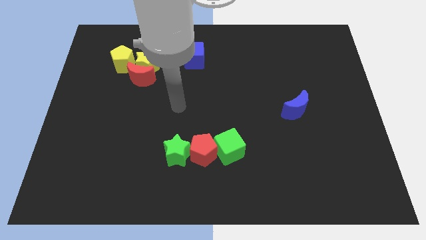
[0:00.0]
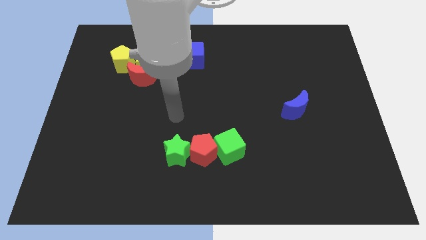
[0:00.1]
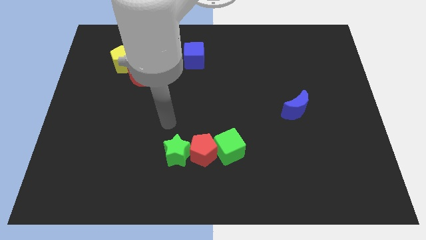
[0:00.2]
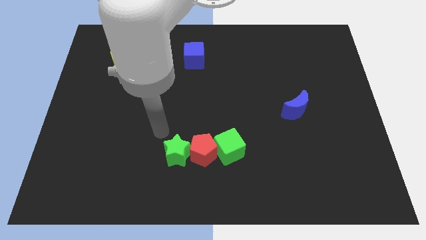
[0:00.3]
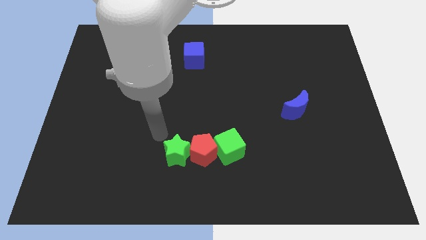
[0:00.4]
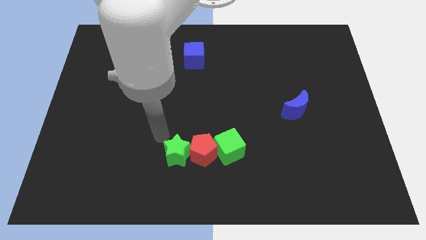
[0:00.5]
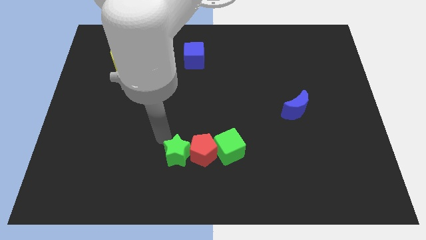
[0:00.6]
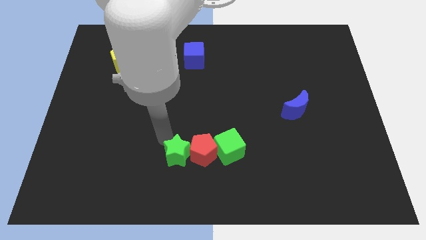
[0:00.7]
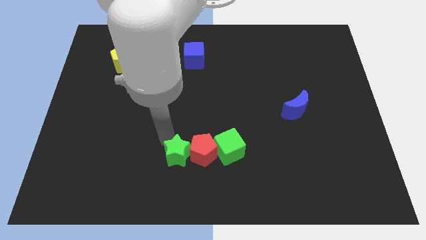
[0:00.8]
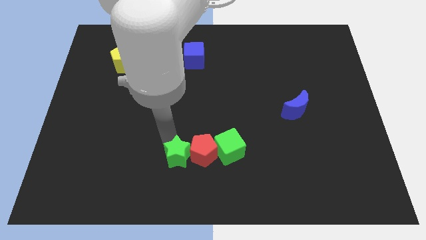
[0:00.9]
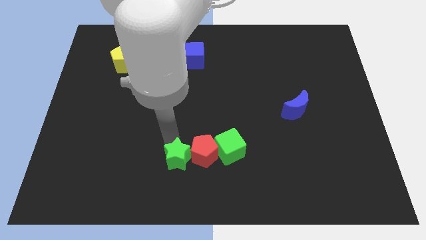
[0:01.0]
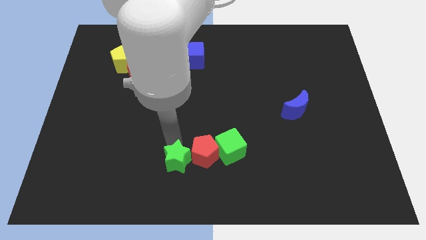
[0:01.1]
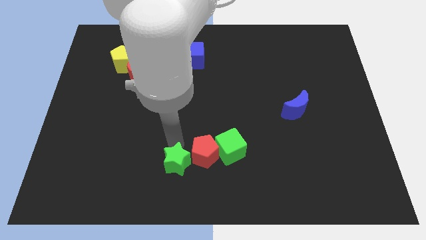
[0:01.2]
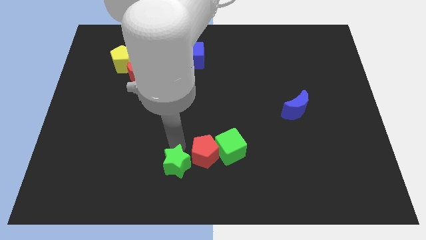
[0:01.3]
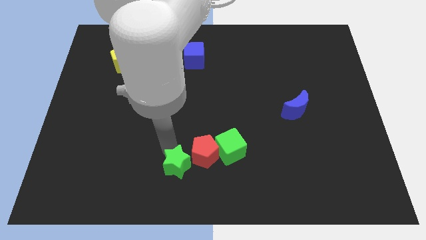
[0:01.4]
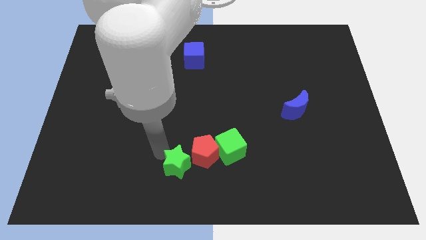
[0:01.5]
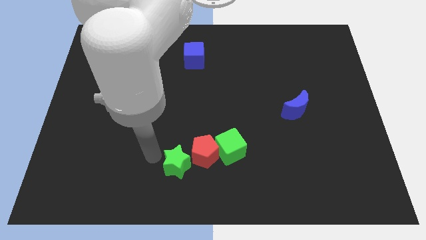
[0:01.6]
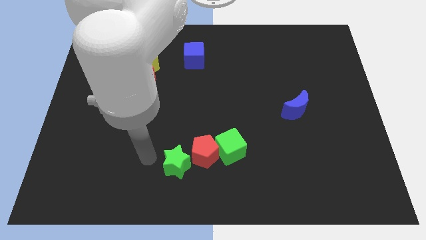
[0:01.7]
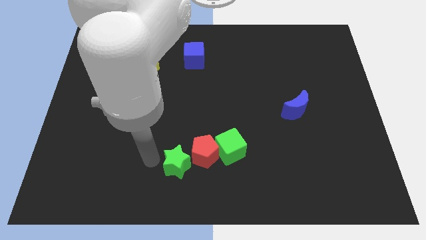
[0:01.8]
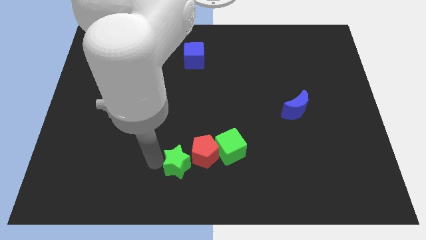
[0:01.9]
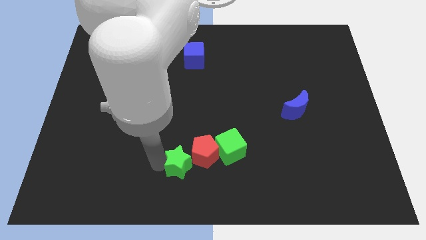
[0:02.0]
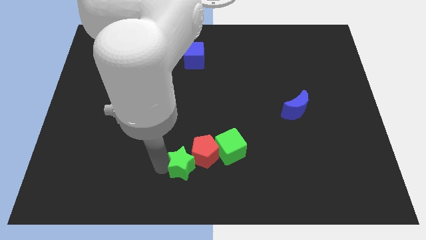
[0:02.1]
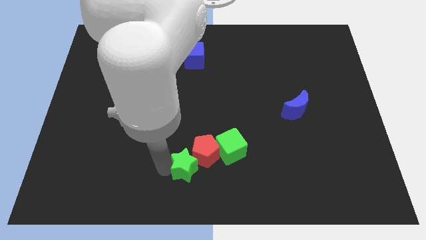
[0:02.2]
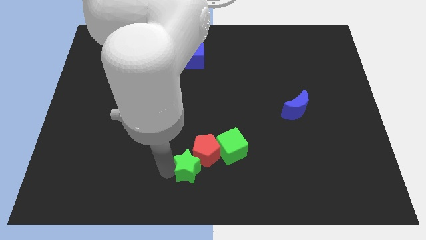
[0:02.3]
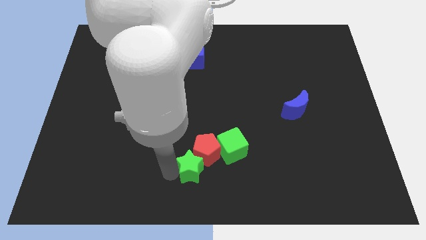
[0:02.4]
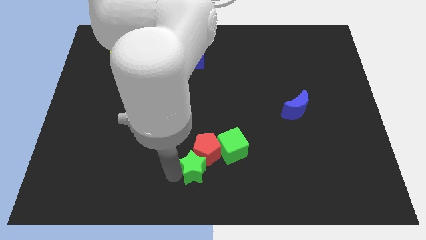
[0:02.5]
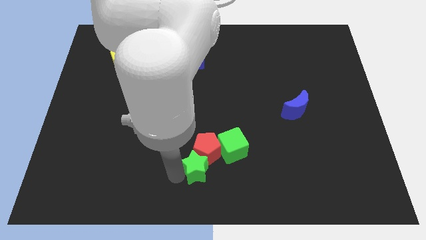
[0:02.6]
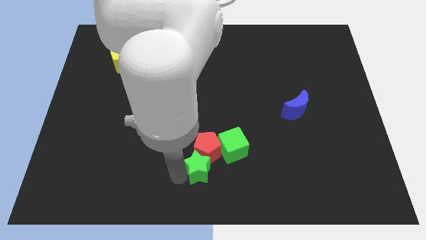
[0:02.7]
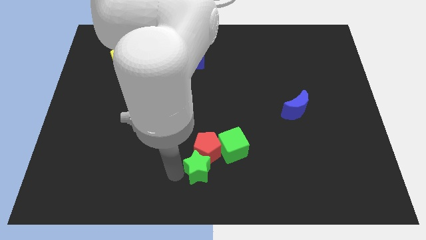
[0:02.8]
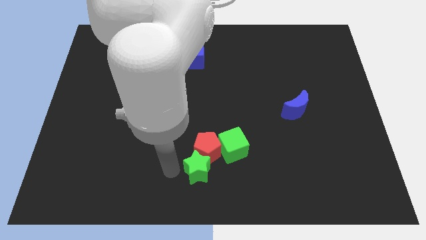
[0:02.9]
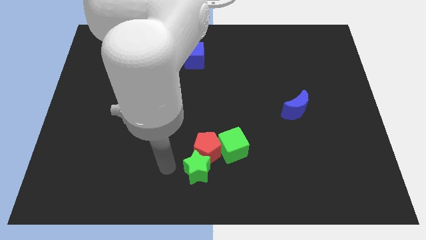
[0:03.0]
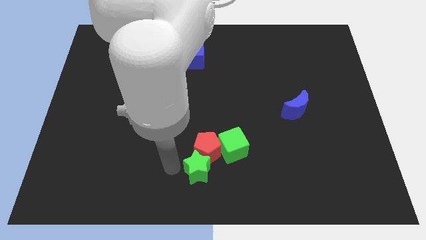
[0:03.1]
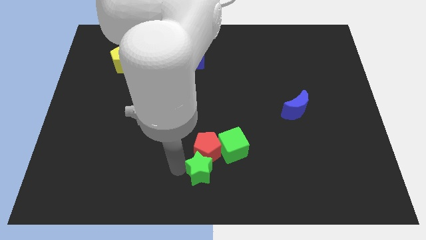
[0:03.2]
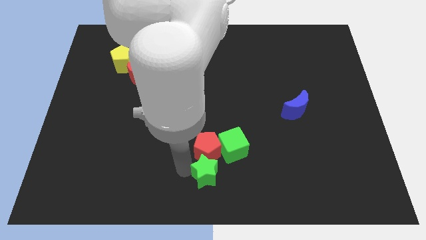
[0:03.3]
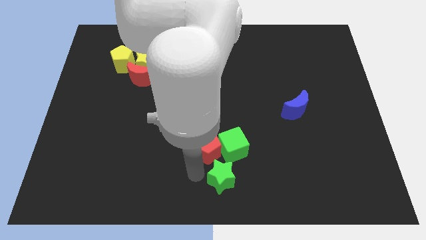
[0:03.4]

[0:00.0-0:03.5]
slightly push the green star right

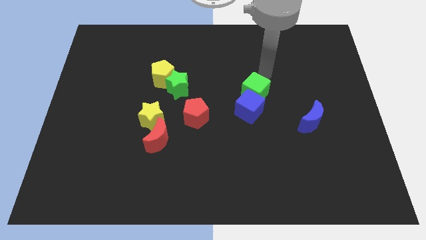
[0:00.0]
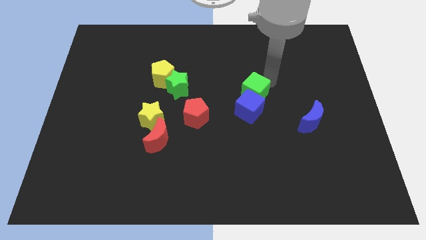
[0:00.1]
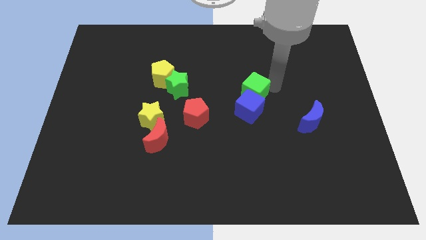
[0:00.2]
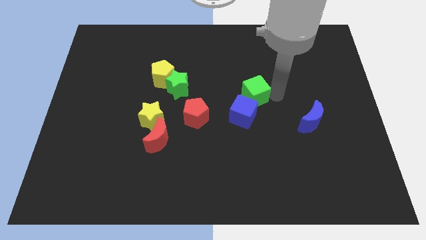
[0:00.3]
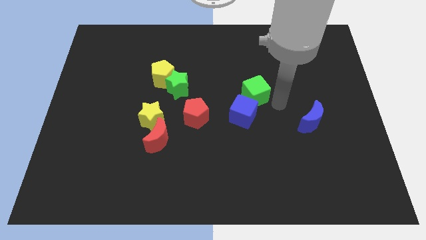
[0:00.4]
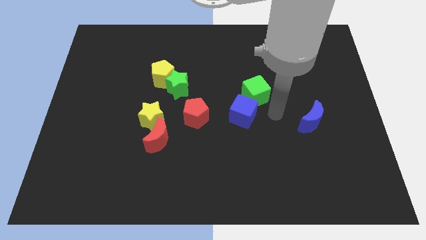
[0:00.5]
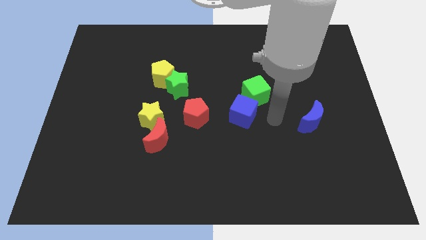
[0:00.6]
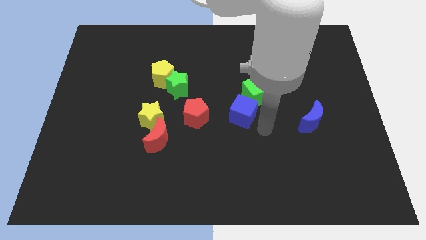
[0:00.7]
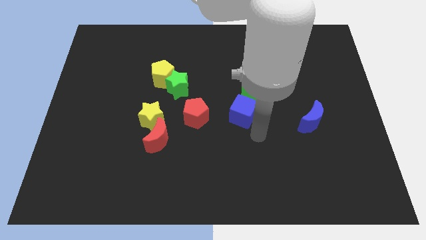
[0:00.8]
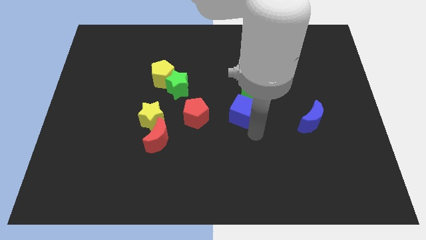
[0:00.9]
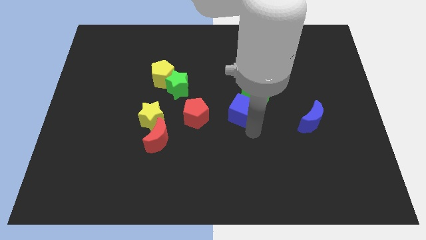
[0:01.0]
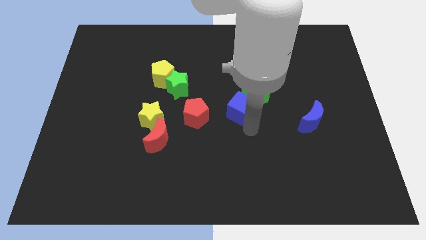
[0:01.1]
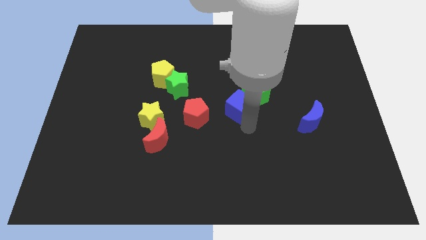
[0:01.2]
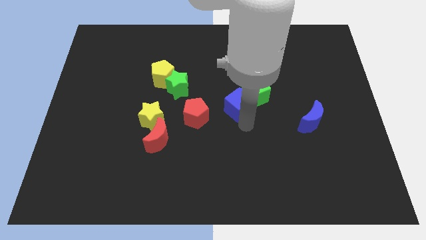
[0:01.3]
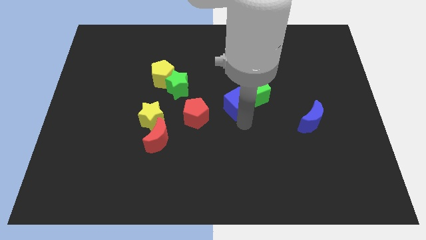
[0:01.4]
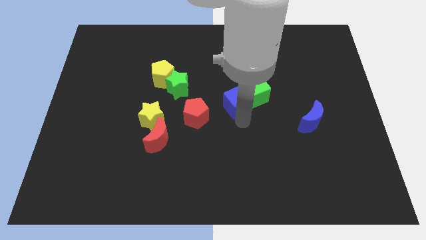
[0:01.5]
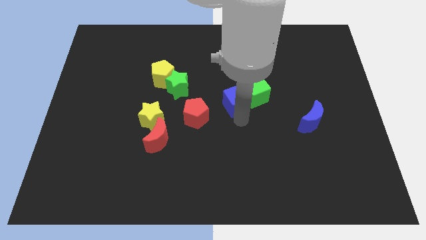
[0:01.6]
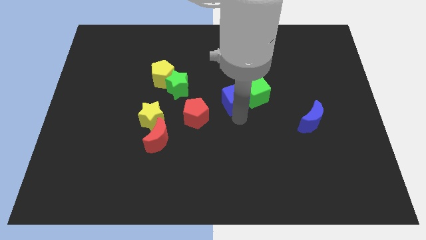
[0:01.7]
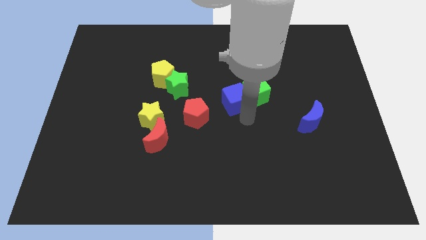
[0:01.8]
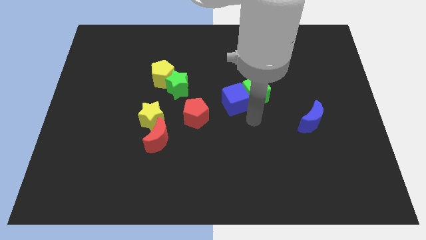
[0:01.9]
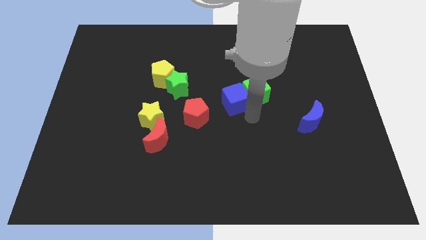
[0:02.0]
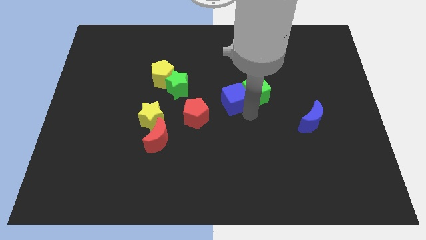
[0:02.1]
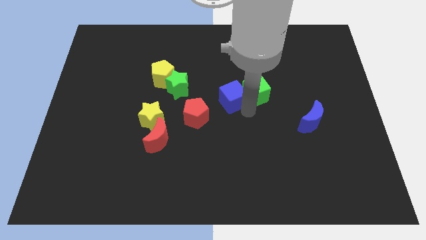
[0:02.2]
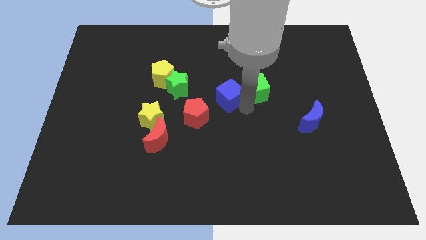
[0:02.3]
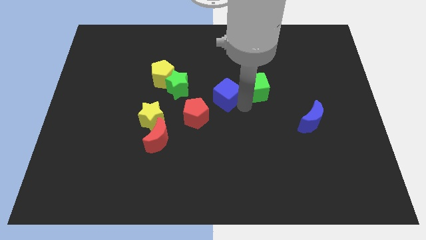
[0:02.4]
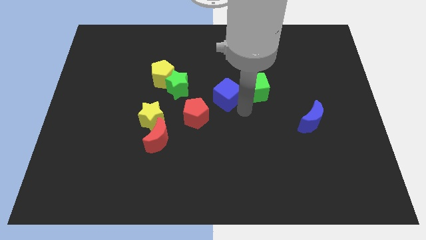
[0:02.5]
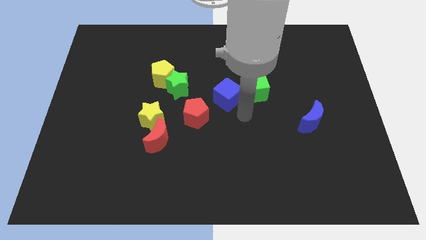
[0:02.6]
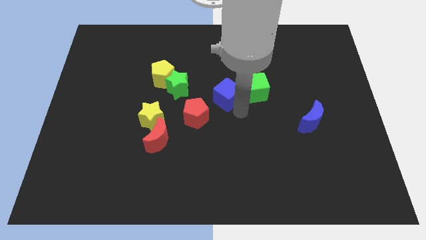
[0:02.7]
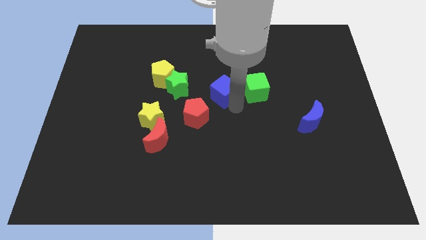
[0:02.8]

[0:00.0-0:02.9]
slightly slide the blue cube up and to the left

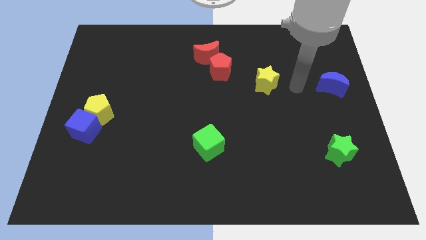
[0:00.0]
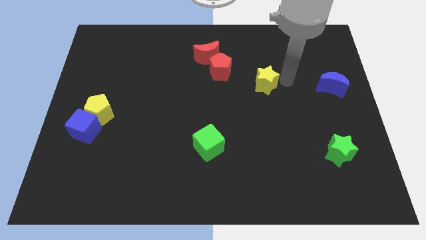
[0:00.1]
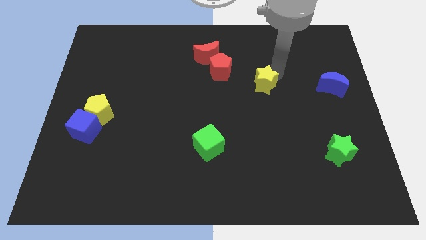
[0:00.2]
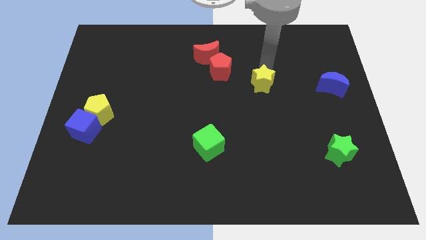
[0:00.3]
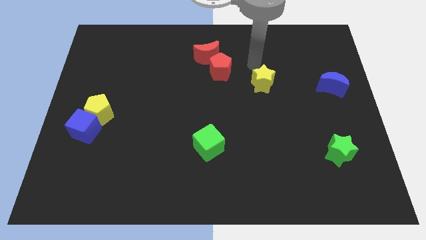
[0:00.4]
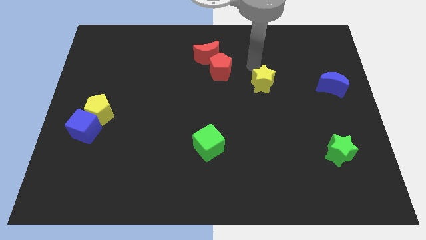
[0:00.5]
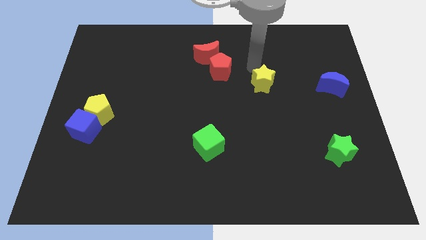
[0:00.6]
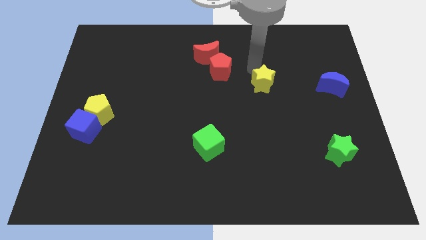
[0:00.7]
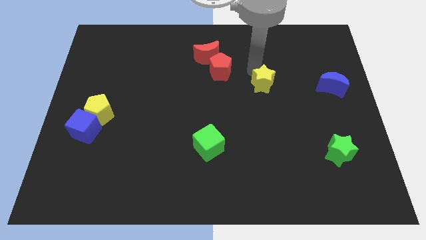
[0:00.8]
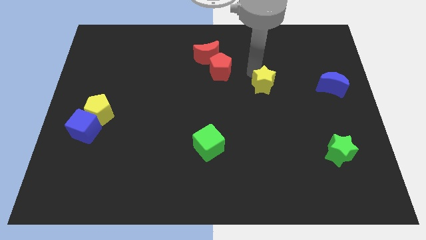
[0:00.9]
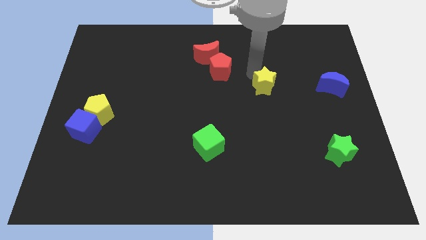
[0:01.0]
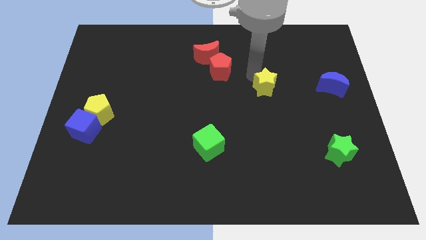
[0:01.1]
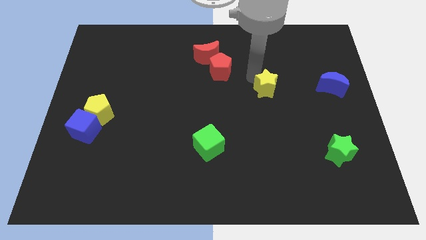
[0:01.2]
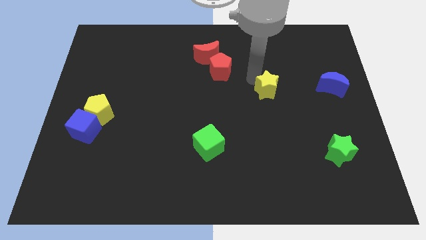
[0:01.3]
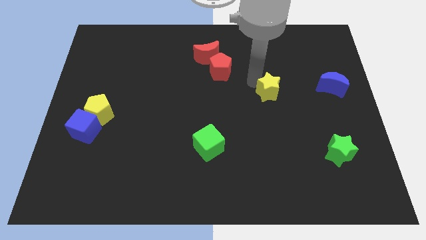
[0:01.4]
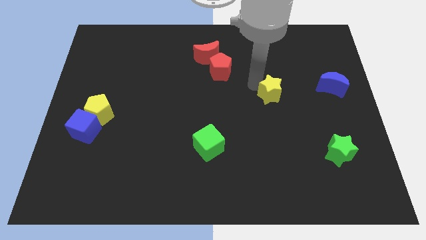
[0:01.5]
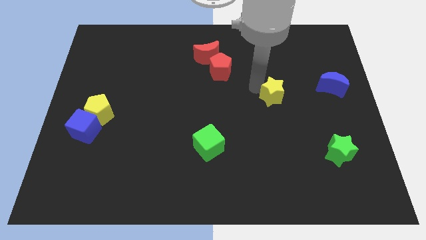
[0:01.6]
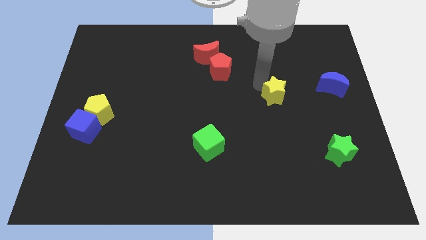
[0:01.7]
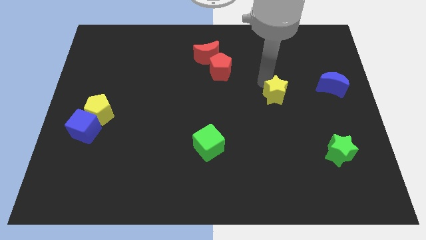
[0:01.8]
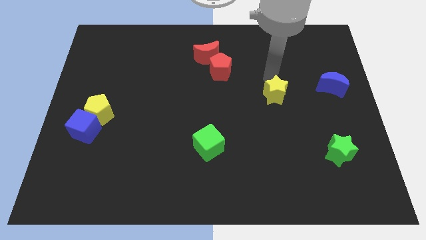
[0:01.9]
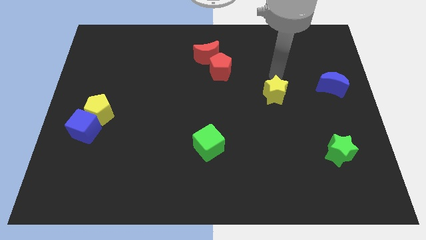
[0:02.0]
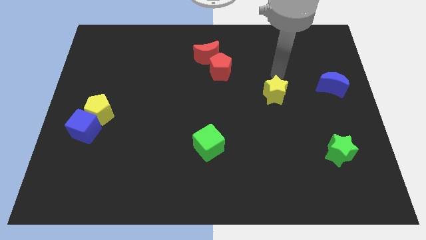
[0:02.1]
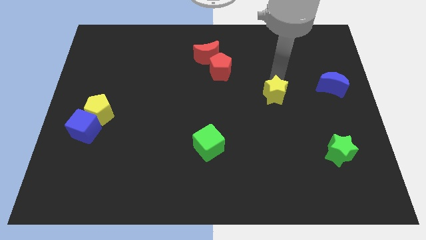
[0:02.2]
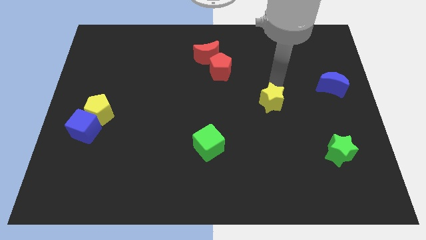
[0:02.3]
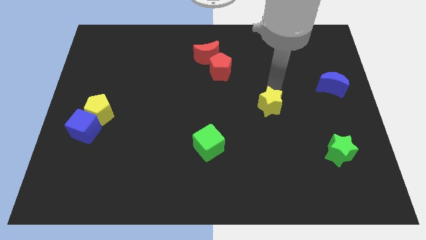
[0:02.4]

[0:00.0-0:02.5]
push the yellow star downwards a little bit
